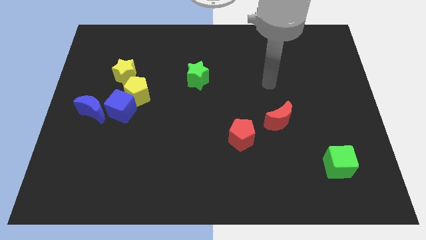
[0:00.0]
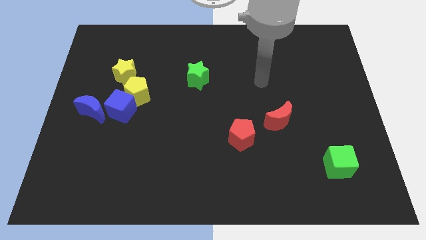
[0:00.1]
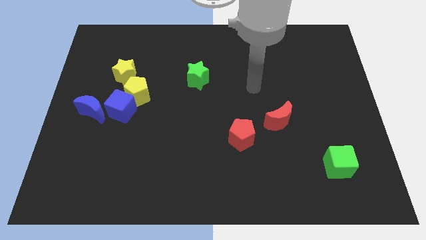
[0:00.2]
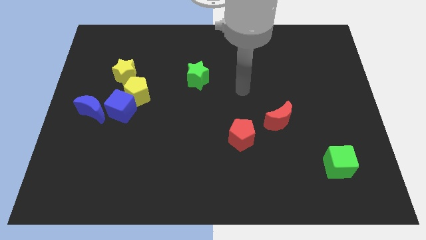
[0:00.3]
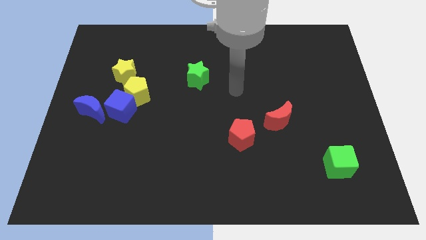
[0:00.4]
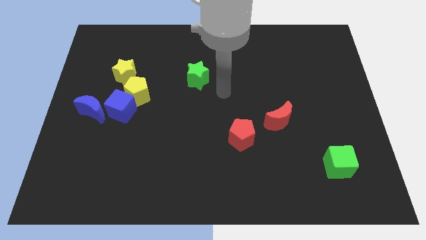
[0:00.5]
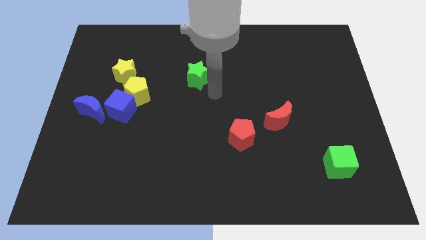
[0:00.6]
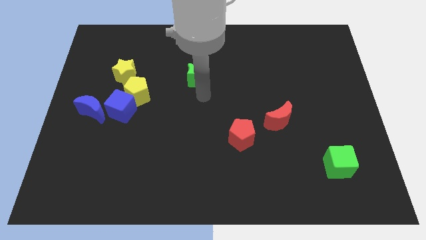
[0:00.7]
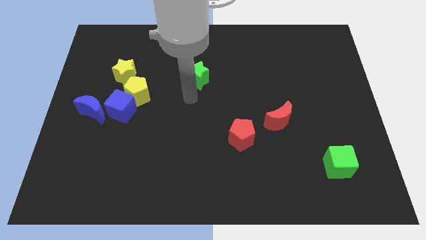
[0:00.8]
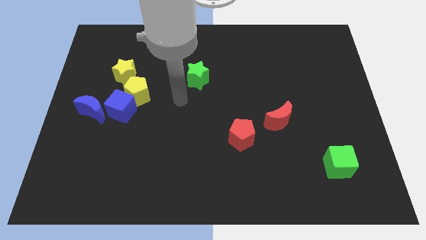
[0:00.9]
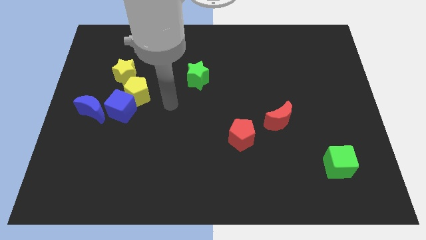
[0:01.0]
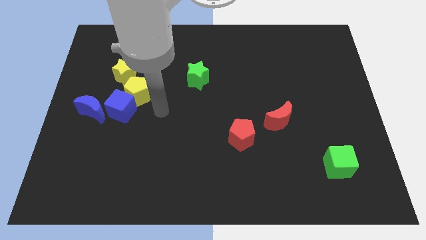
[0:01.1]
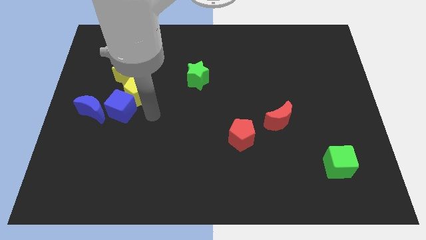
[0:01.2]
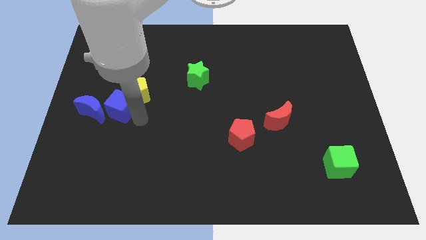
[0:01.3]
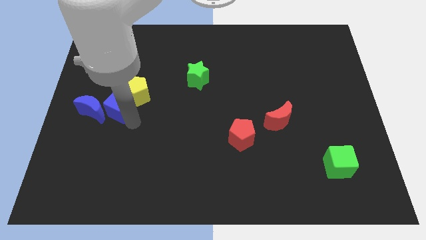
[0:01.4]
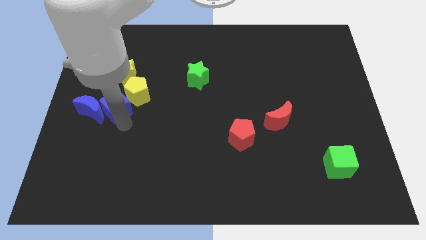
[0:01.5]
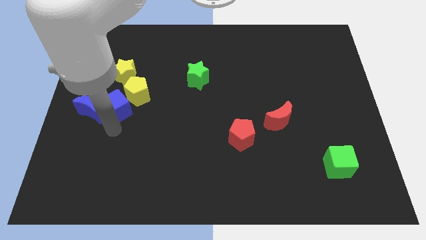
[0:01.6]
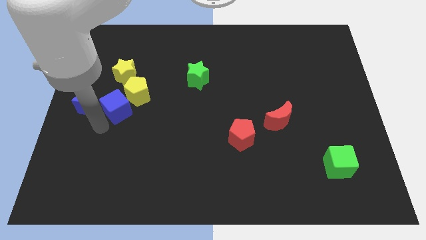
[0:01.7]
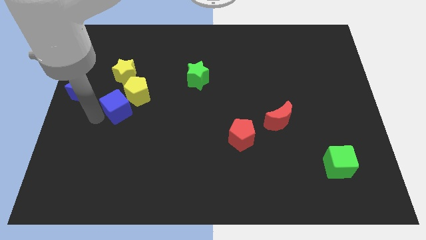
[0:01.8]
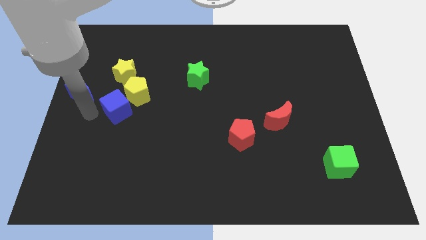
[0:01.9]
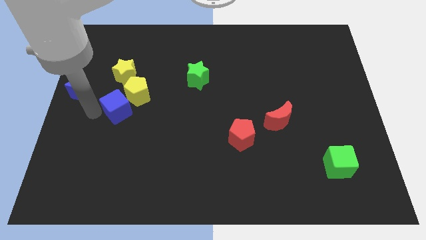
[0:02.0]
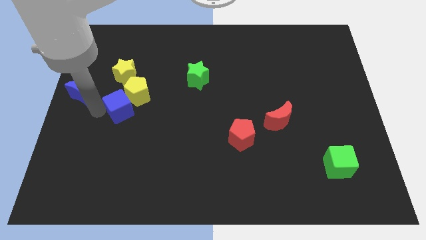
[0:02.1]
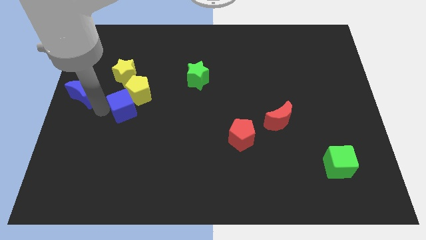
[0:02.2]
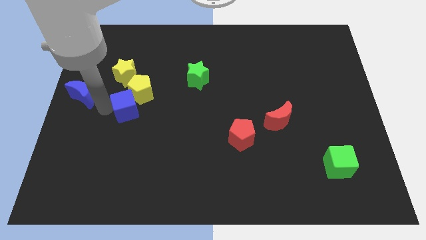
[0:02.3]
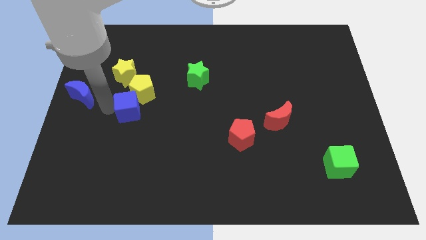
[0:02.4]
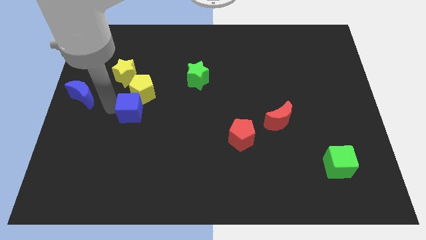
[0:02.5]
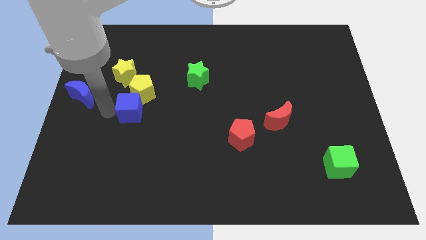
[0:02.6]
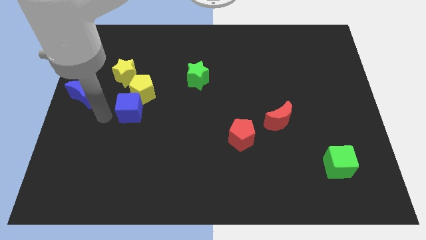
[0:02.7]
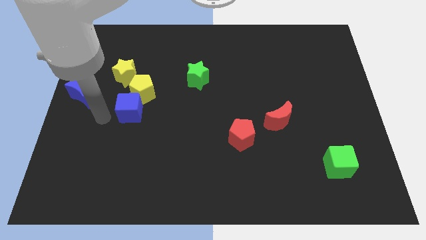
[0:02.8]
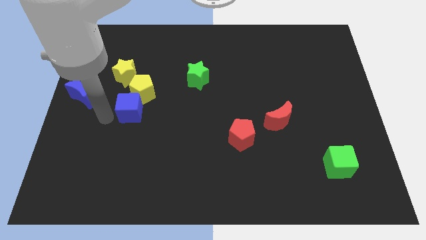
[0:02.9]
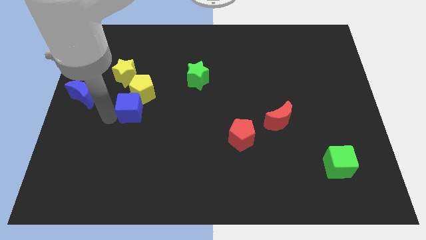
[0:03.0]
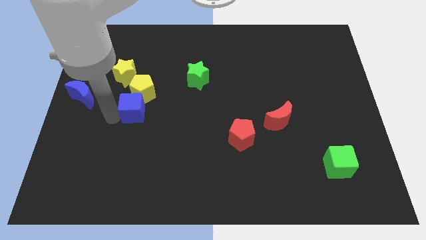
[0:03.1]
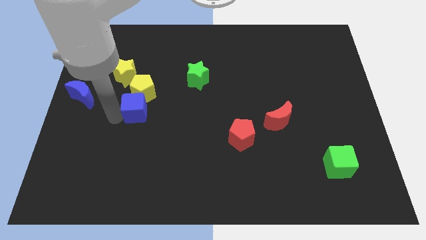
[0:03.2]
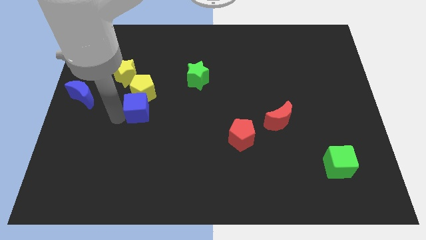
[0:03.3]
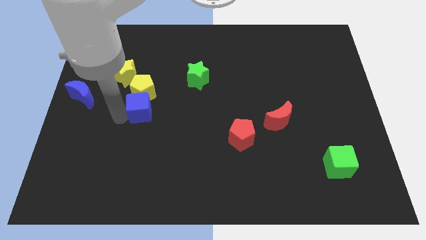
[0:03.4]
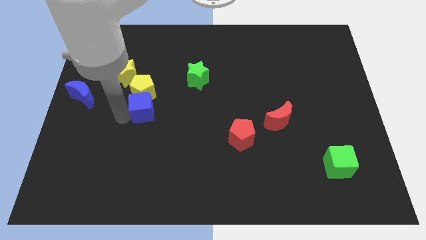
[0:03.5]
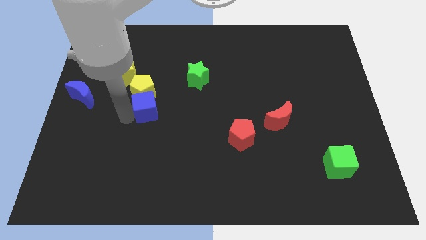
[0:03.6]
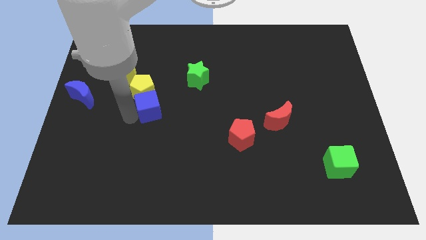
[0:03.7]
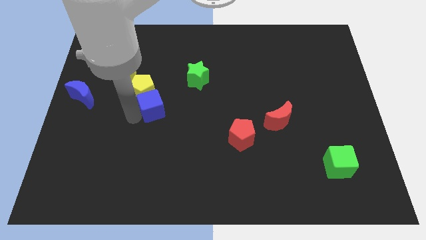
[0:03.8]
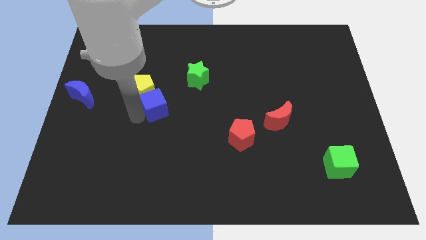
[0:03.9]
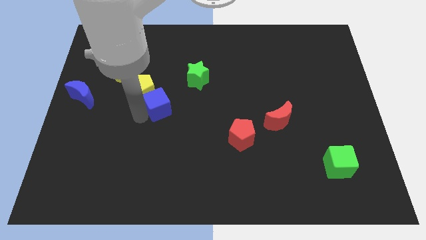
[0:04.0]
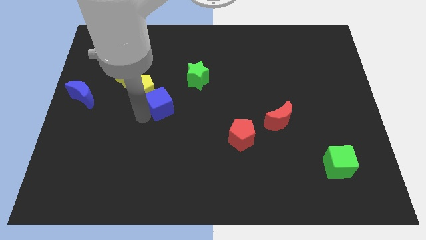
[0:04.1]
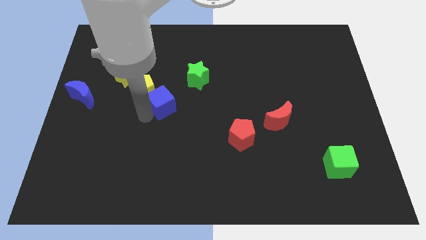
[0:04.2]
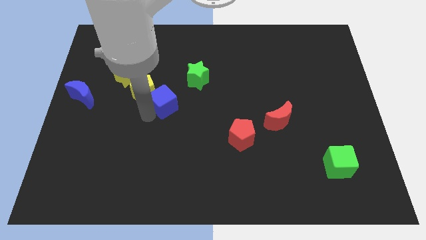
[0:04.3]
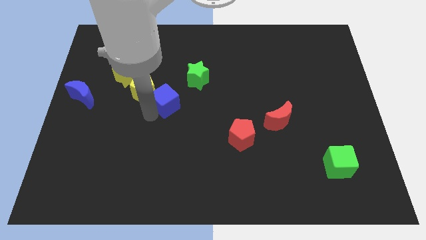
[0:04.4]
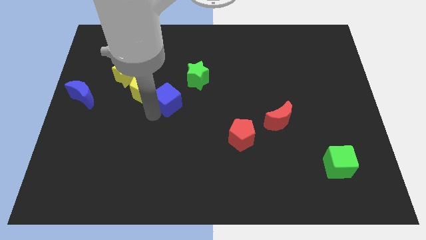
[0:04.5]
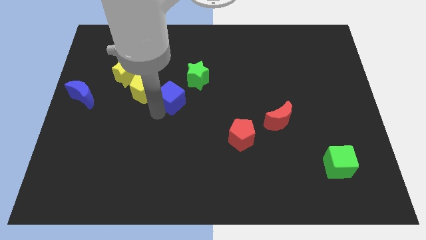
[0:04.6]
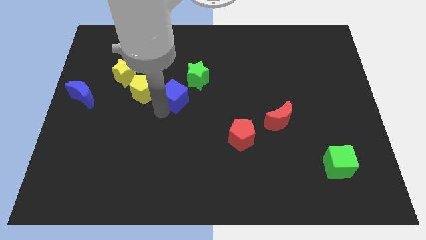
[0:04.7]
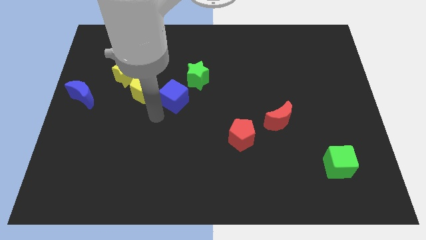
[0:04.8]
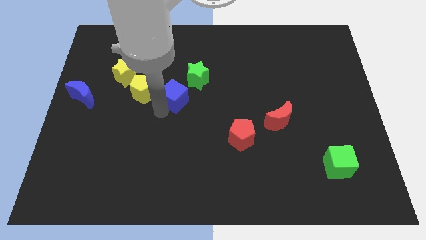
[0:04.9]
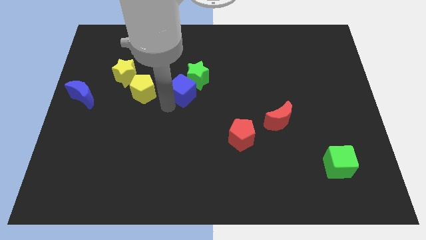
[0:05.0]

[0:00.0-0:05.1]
move the blue cube to the green star

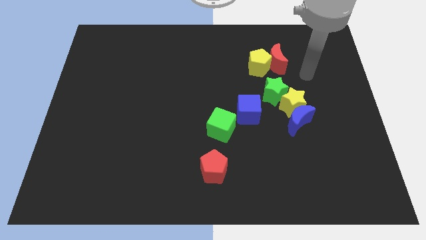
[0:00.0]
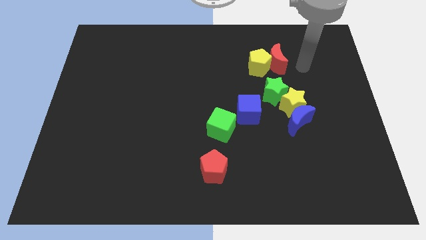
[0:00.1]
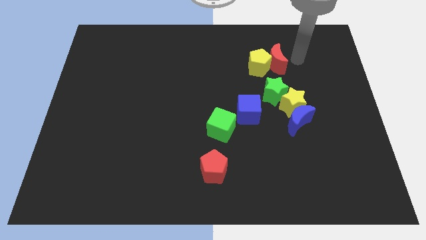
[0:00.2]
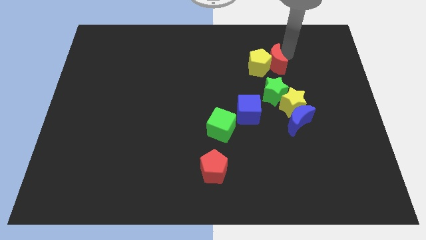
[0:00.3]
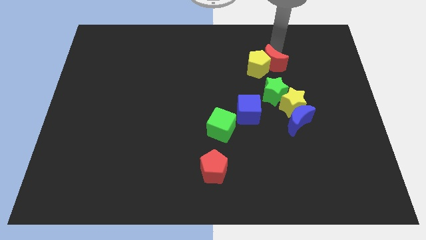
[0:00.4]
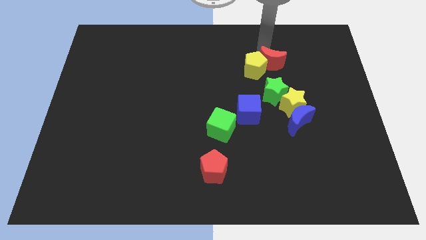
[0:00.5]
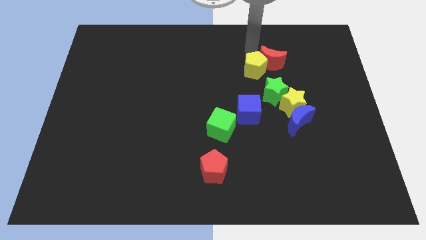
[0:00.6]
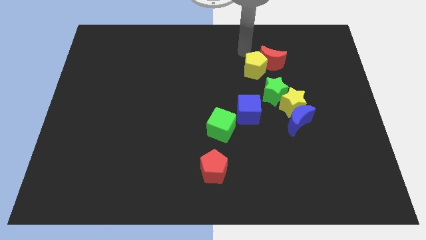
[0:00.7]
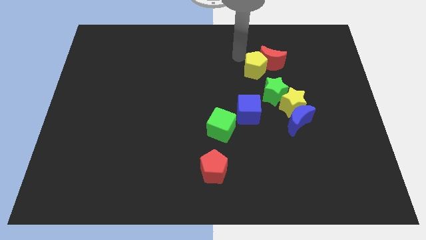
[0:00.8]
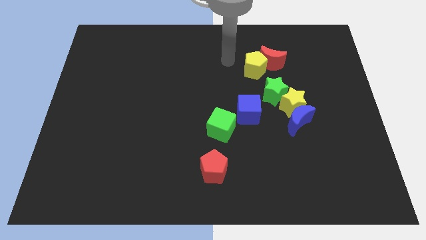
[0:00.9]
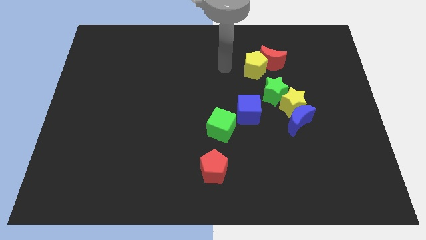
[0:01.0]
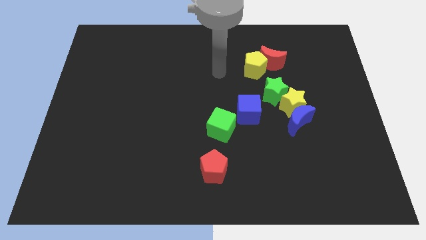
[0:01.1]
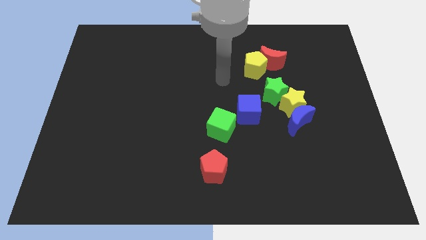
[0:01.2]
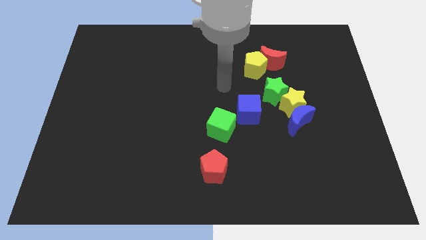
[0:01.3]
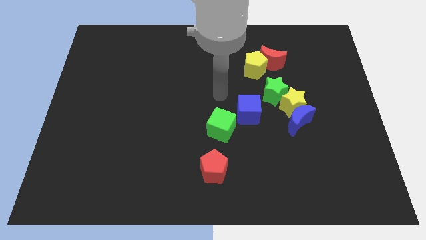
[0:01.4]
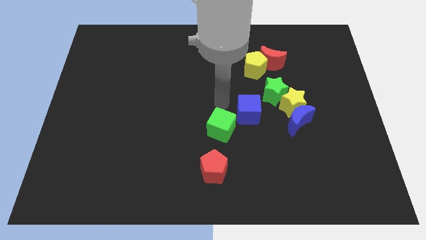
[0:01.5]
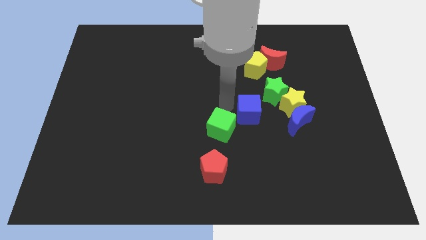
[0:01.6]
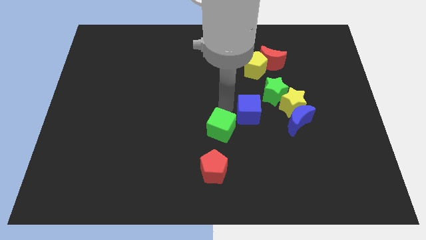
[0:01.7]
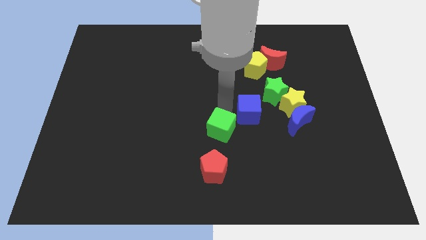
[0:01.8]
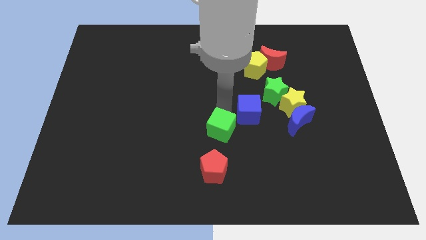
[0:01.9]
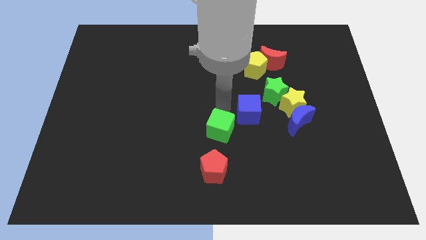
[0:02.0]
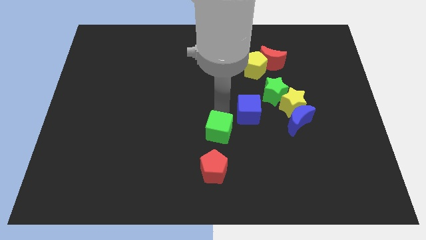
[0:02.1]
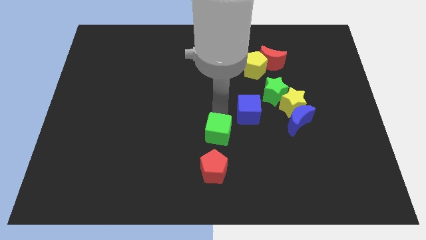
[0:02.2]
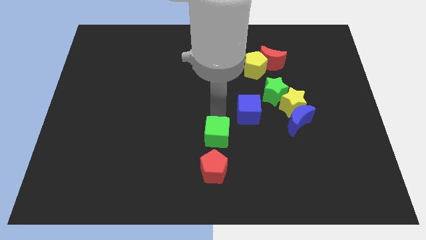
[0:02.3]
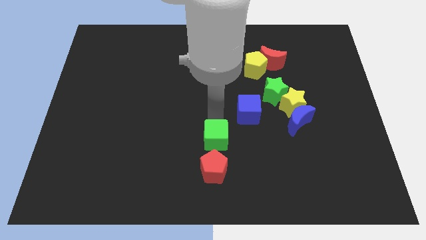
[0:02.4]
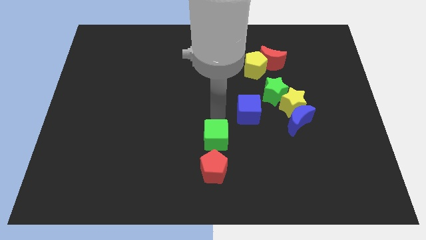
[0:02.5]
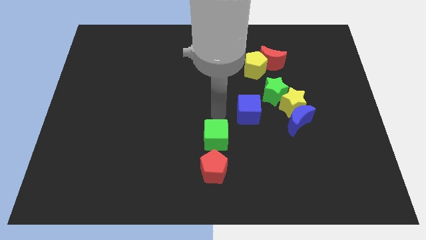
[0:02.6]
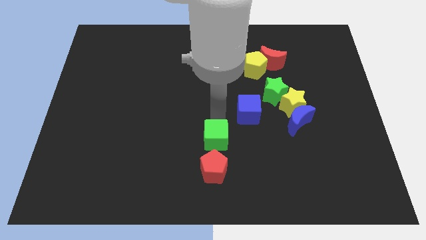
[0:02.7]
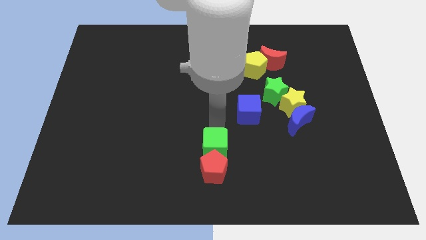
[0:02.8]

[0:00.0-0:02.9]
push the green cube to the red pentagon
